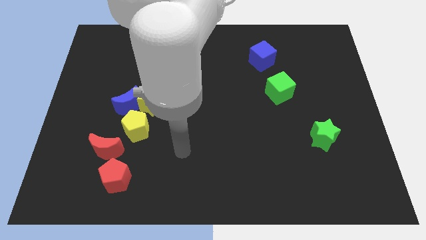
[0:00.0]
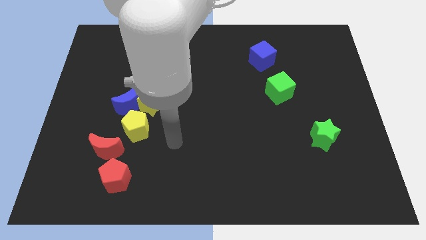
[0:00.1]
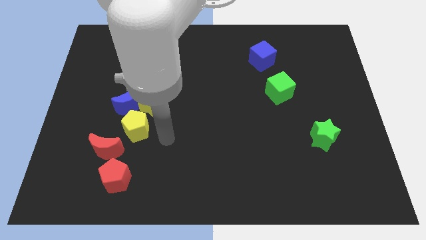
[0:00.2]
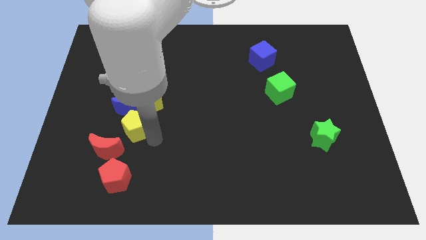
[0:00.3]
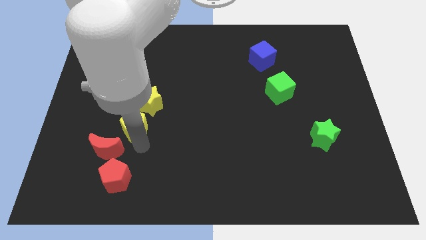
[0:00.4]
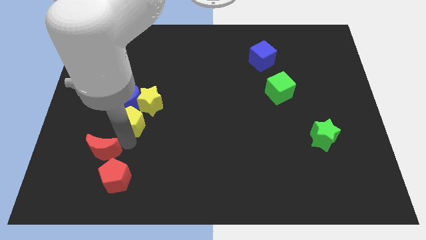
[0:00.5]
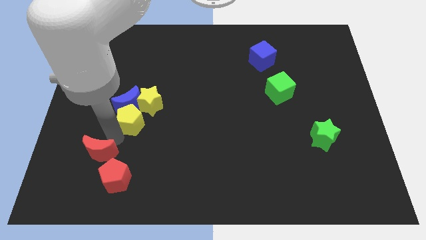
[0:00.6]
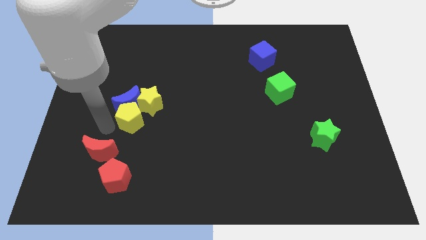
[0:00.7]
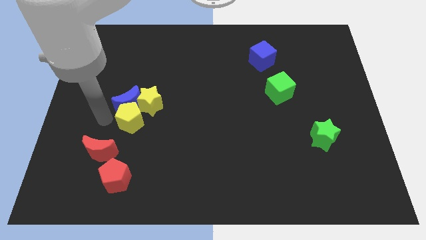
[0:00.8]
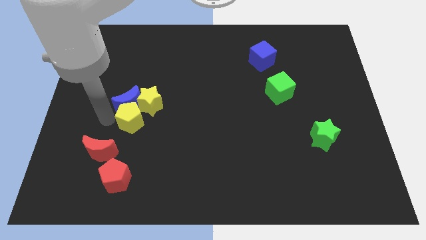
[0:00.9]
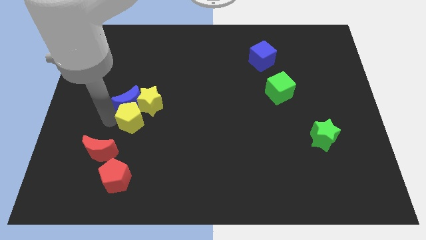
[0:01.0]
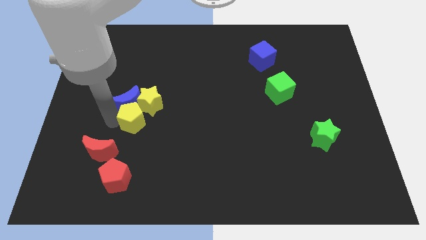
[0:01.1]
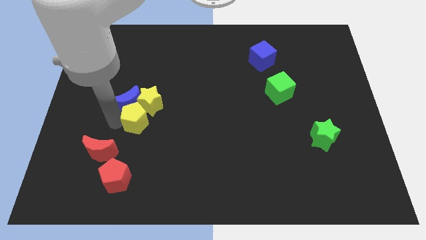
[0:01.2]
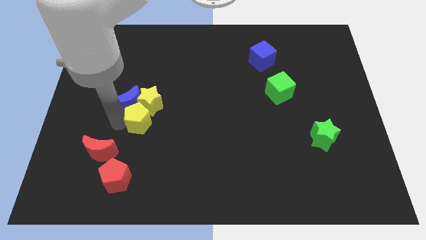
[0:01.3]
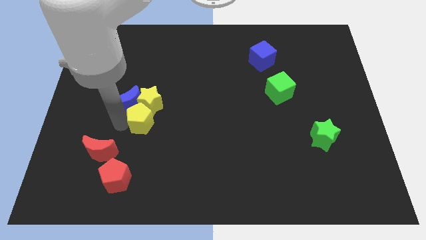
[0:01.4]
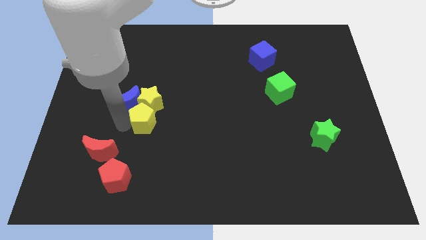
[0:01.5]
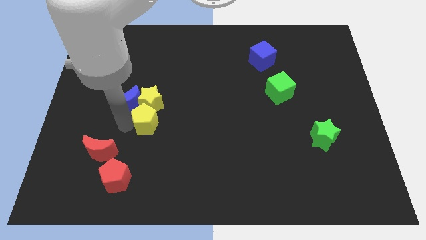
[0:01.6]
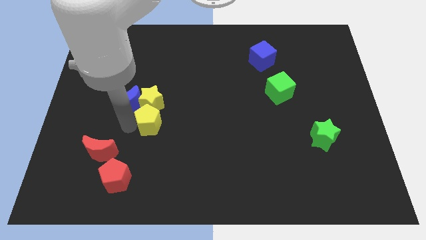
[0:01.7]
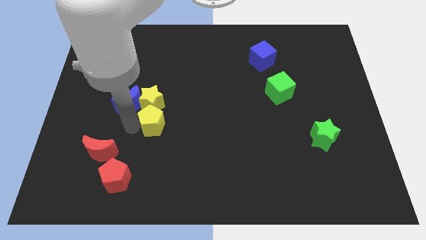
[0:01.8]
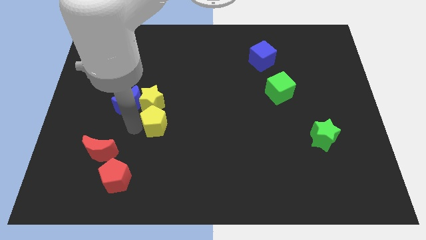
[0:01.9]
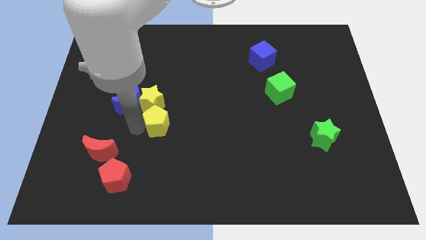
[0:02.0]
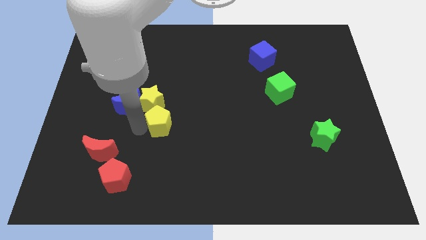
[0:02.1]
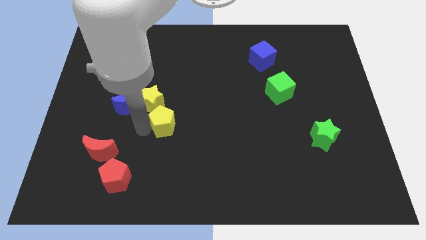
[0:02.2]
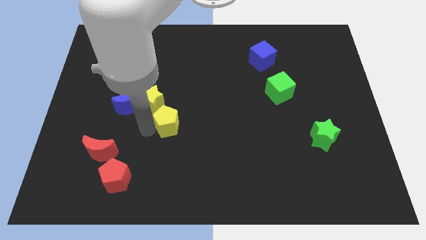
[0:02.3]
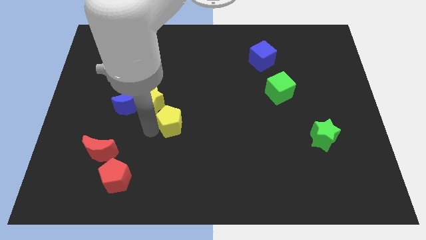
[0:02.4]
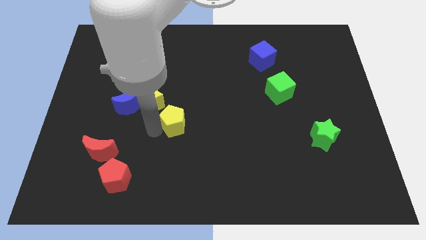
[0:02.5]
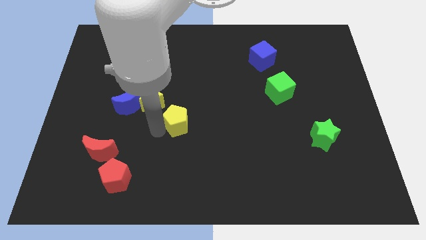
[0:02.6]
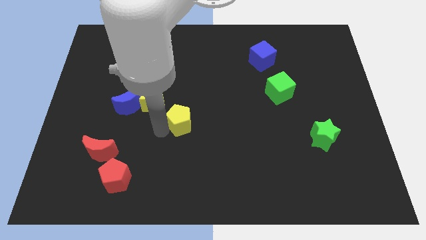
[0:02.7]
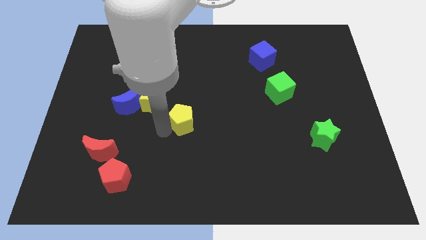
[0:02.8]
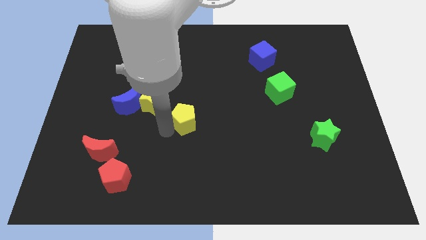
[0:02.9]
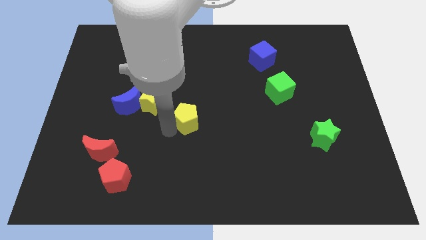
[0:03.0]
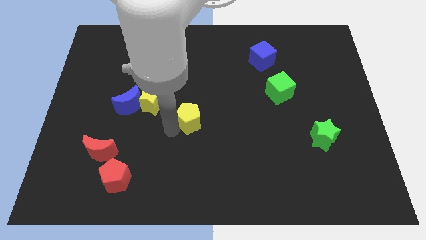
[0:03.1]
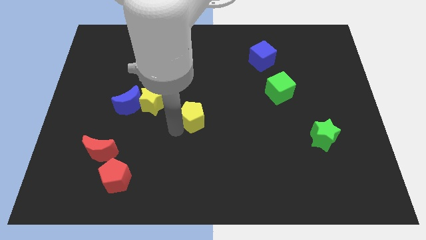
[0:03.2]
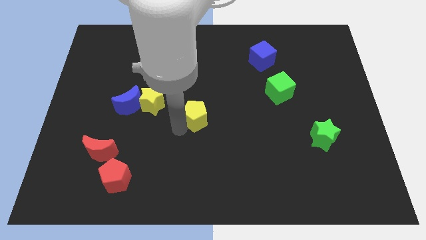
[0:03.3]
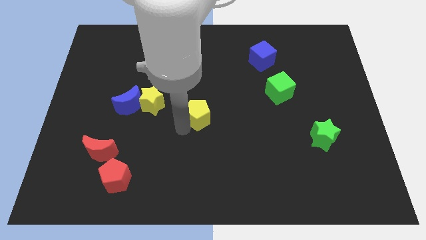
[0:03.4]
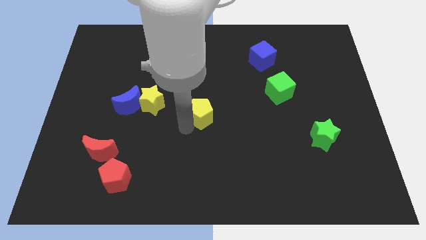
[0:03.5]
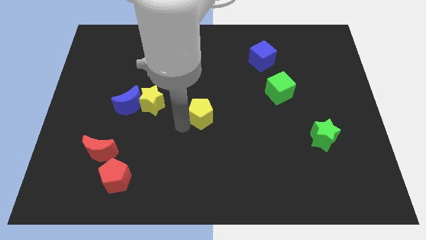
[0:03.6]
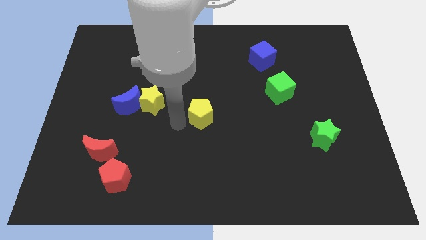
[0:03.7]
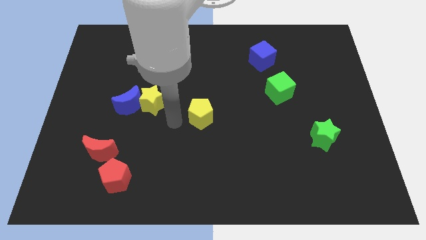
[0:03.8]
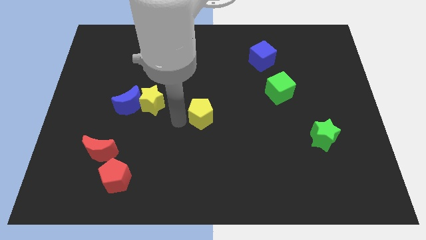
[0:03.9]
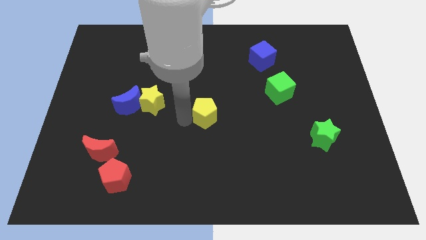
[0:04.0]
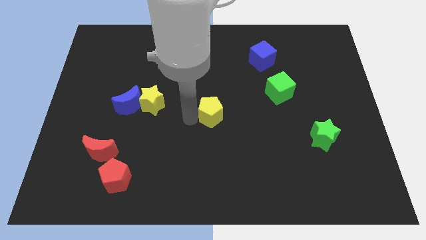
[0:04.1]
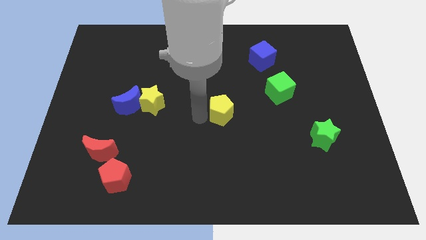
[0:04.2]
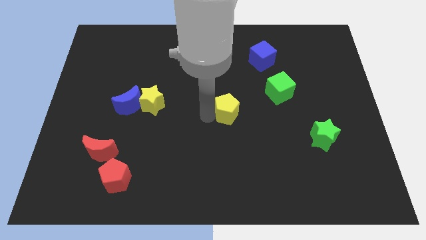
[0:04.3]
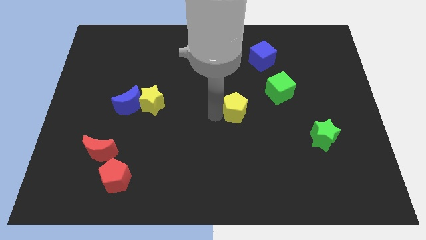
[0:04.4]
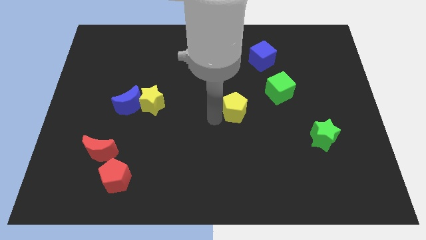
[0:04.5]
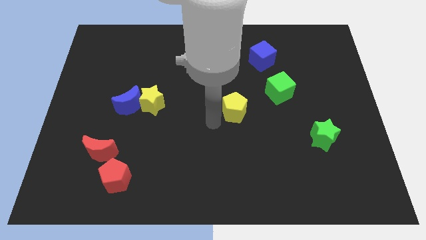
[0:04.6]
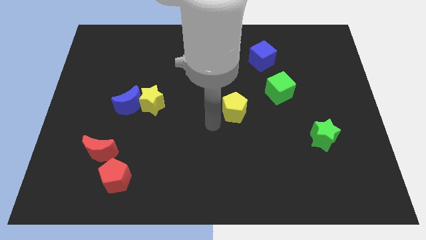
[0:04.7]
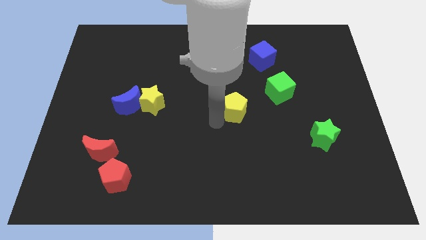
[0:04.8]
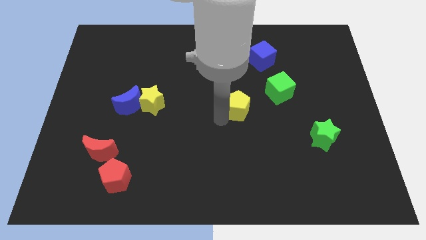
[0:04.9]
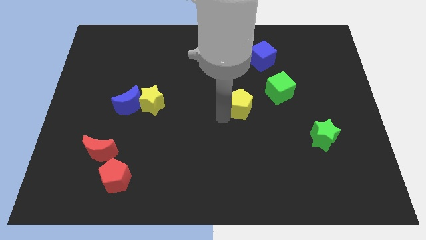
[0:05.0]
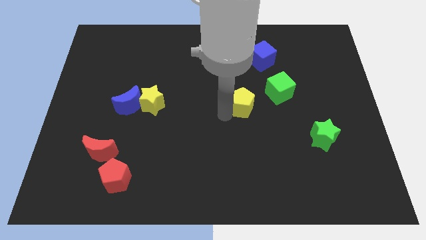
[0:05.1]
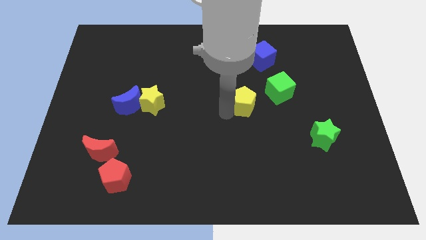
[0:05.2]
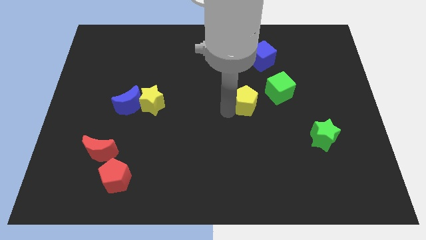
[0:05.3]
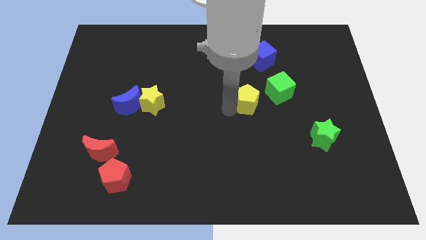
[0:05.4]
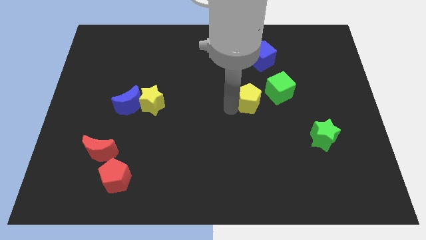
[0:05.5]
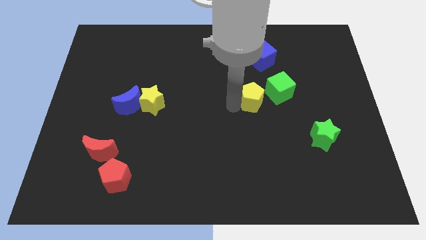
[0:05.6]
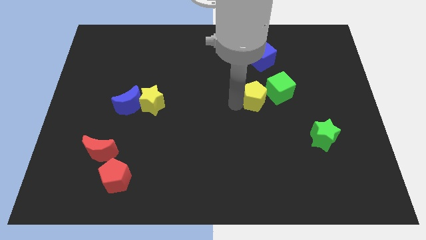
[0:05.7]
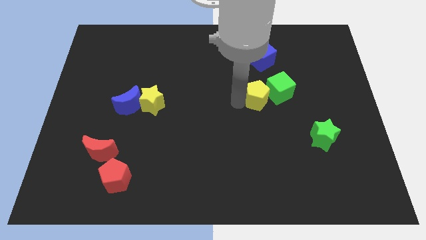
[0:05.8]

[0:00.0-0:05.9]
move the yellow pentagon to the green cube
